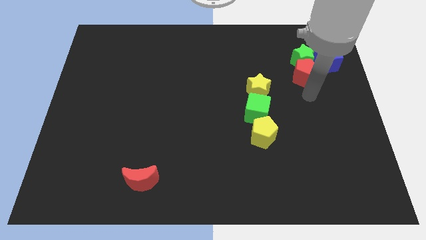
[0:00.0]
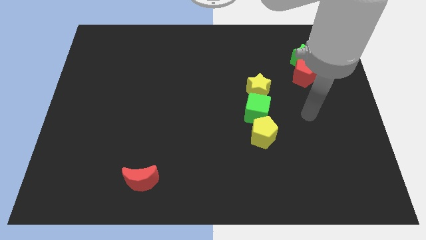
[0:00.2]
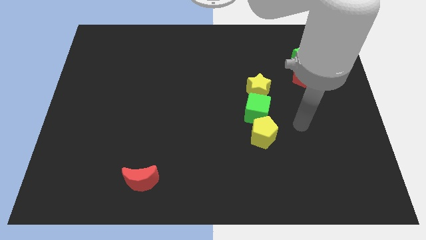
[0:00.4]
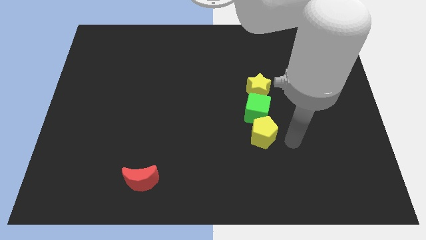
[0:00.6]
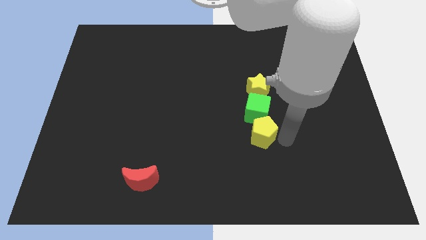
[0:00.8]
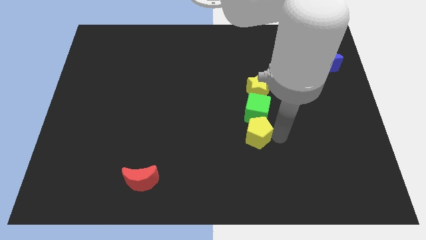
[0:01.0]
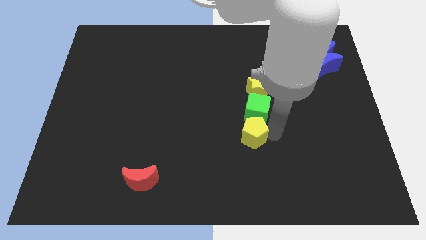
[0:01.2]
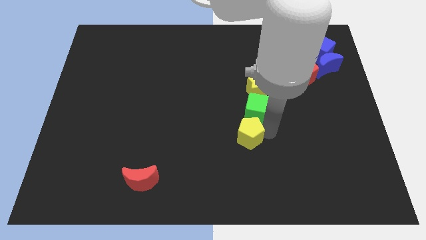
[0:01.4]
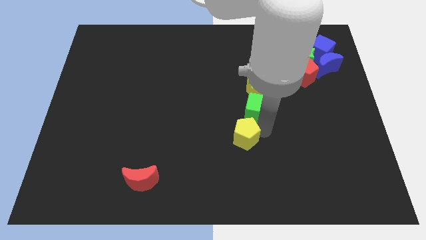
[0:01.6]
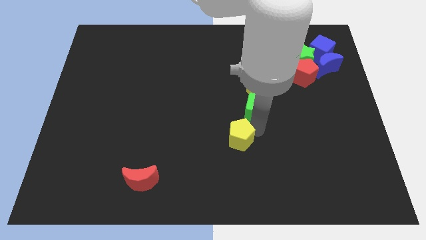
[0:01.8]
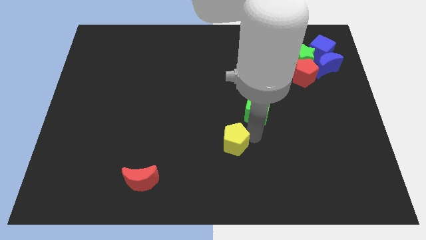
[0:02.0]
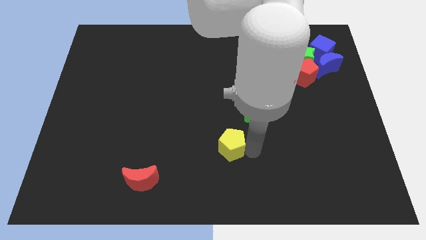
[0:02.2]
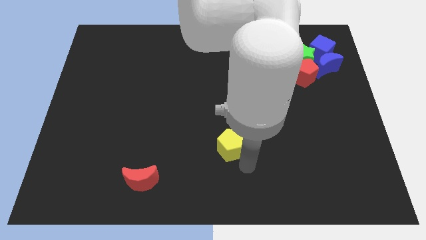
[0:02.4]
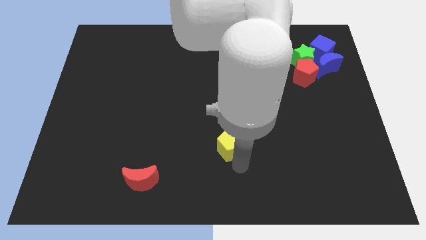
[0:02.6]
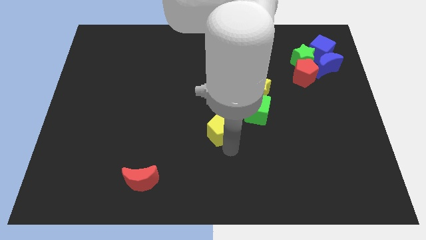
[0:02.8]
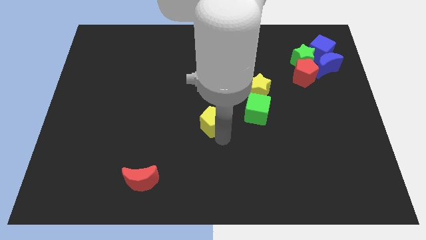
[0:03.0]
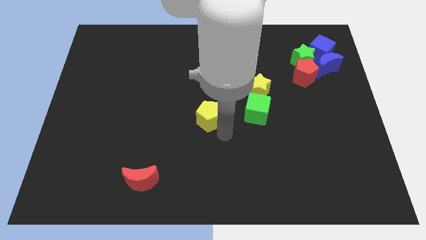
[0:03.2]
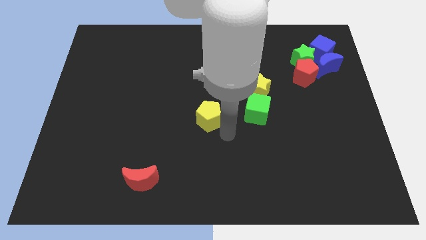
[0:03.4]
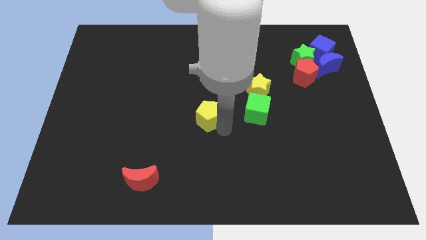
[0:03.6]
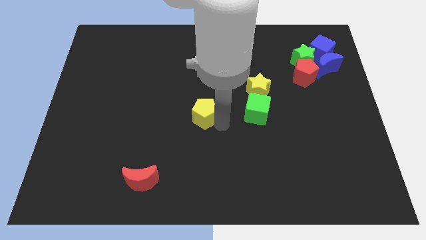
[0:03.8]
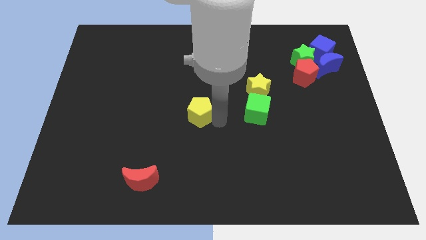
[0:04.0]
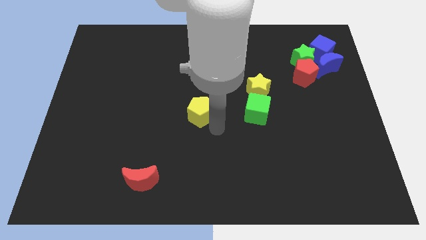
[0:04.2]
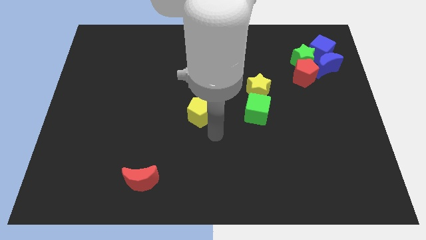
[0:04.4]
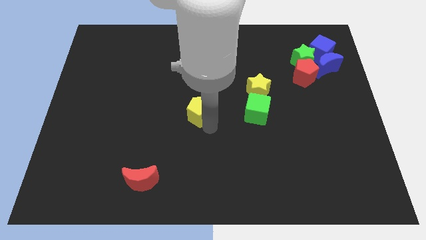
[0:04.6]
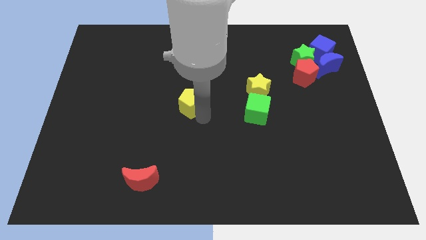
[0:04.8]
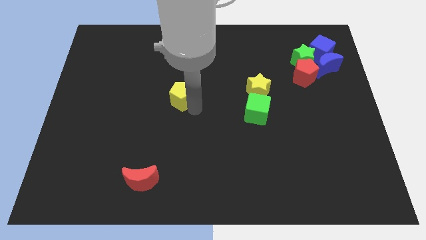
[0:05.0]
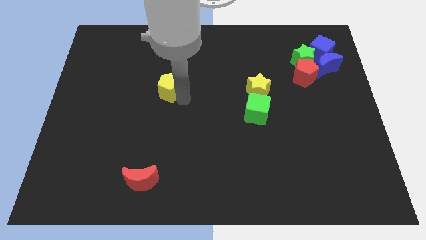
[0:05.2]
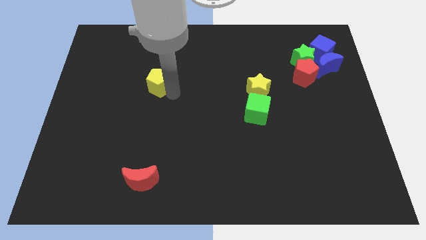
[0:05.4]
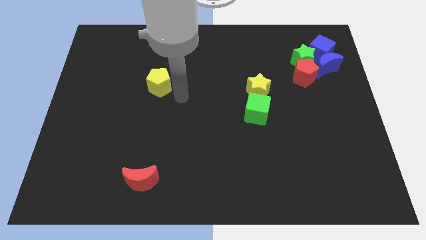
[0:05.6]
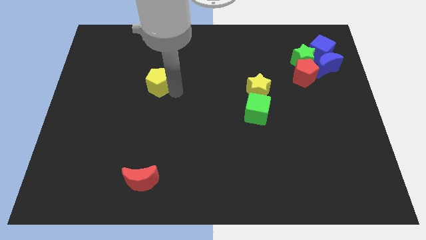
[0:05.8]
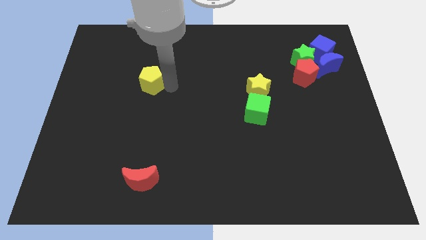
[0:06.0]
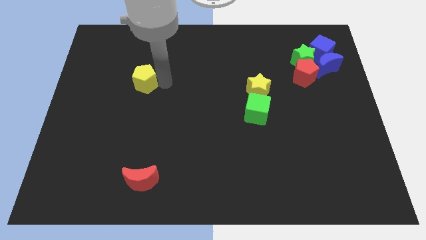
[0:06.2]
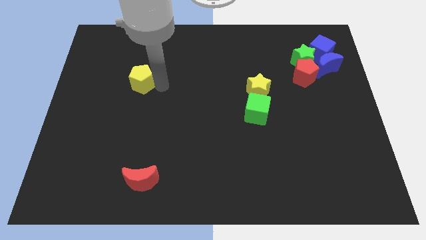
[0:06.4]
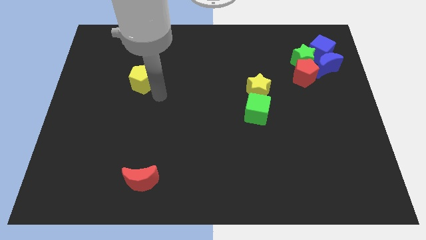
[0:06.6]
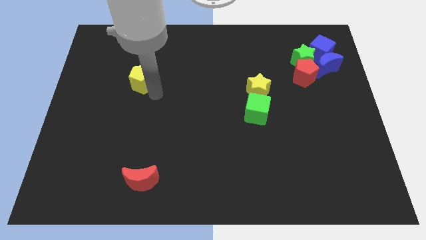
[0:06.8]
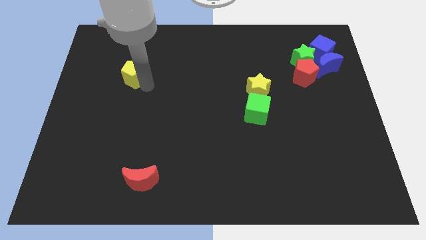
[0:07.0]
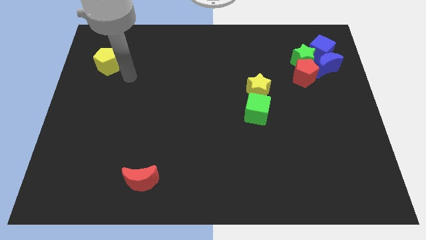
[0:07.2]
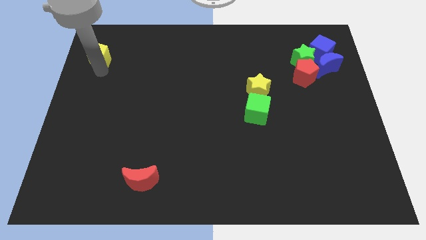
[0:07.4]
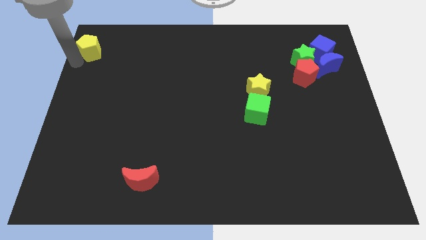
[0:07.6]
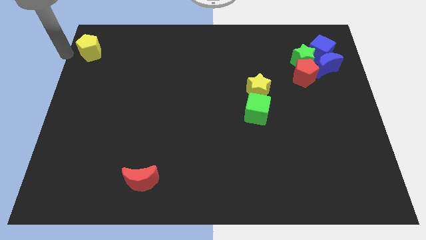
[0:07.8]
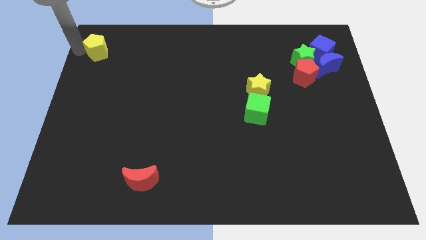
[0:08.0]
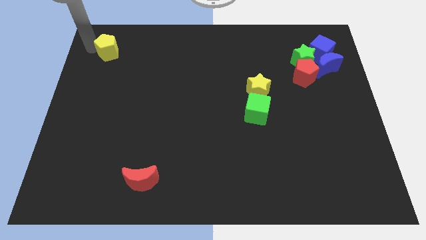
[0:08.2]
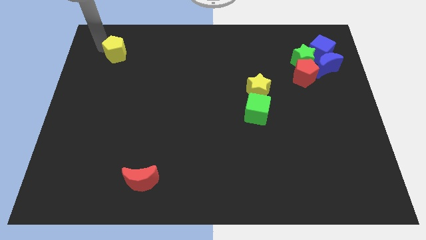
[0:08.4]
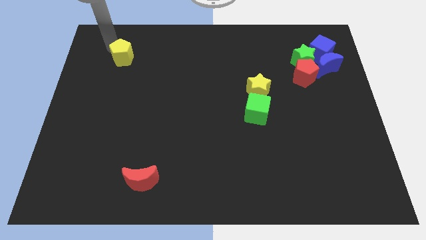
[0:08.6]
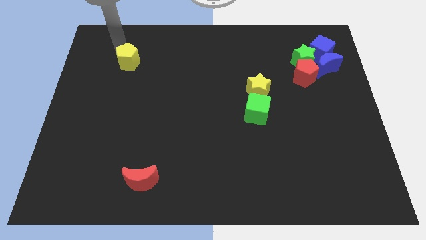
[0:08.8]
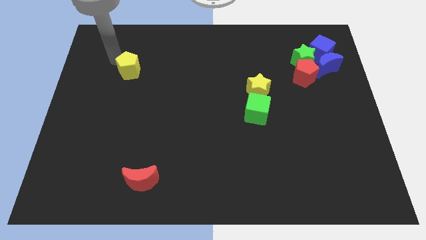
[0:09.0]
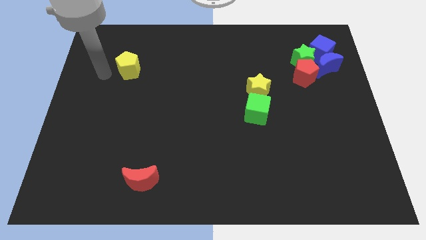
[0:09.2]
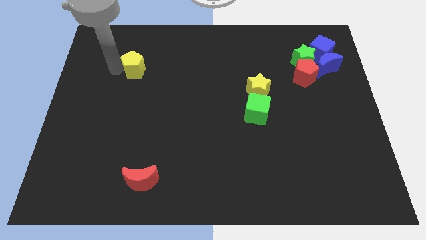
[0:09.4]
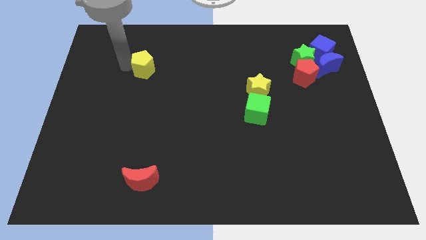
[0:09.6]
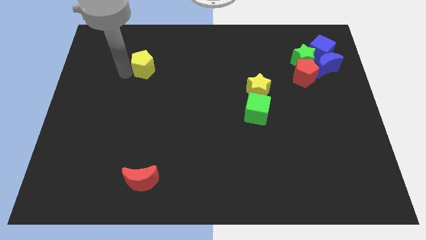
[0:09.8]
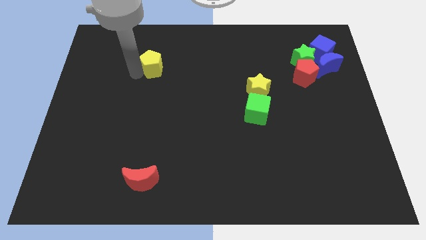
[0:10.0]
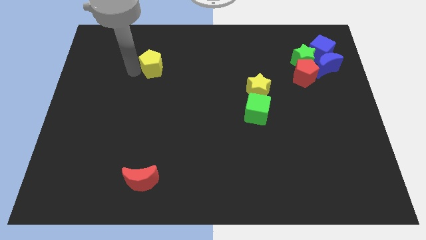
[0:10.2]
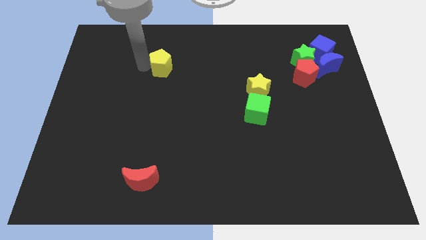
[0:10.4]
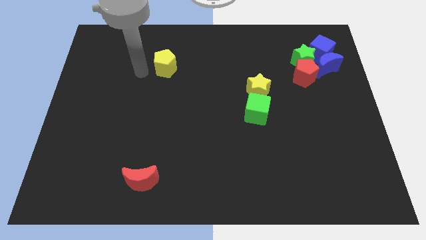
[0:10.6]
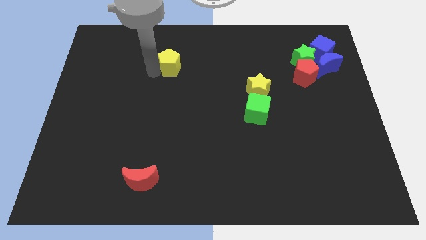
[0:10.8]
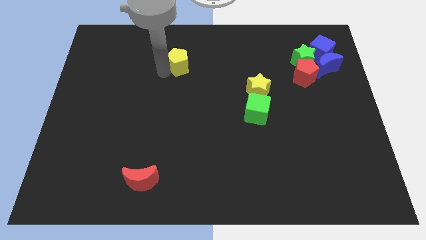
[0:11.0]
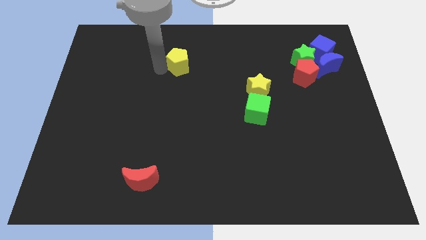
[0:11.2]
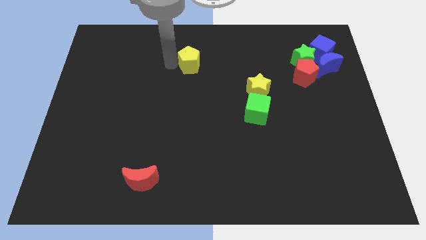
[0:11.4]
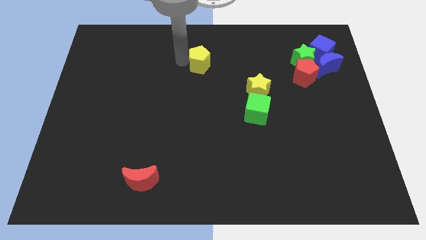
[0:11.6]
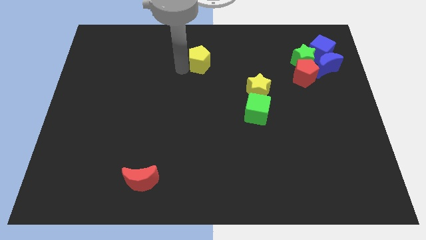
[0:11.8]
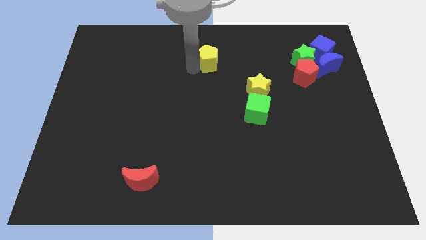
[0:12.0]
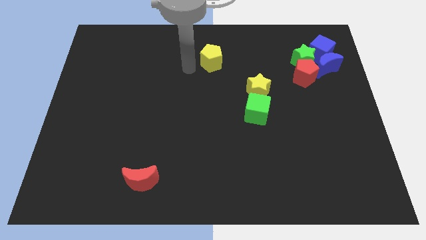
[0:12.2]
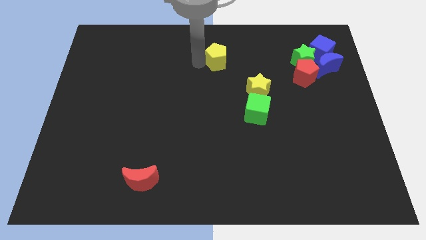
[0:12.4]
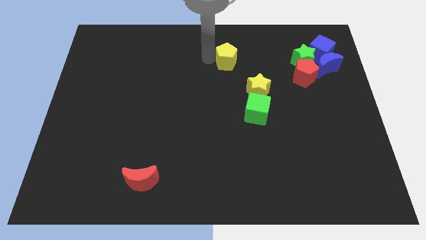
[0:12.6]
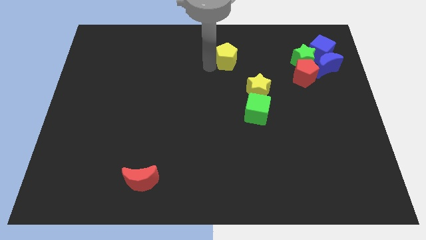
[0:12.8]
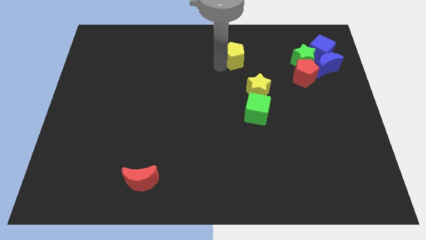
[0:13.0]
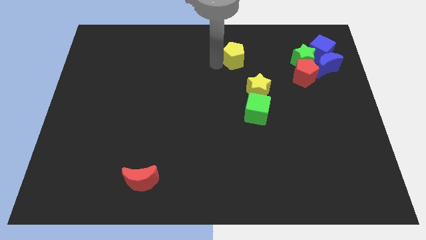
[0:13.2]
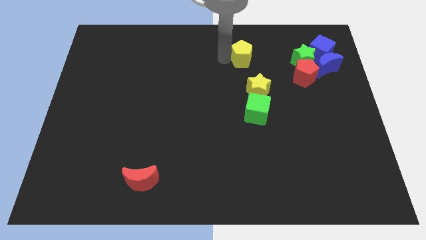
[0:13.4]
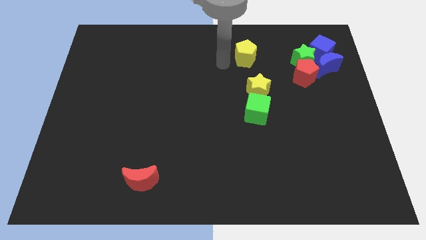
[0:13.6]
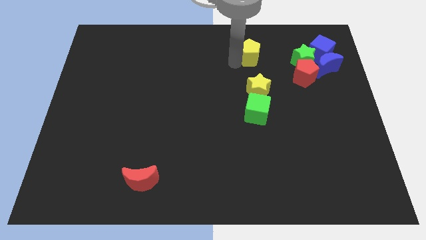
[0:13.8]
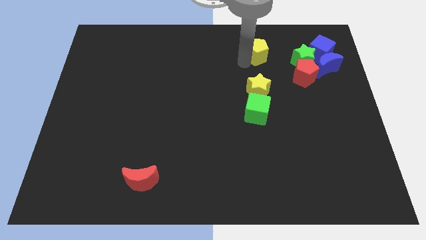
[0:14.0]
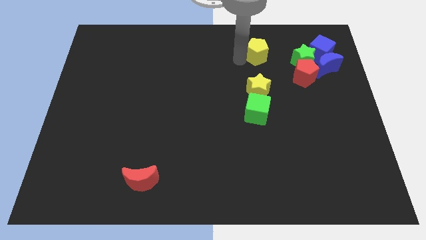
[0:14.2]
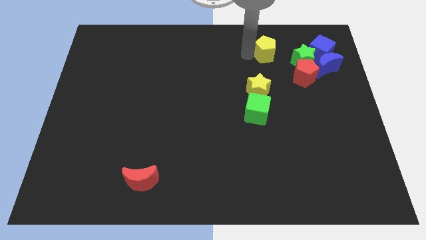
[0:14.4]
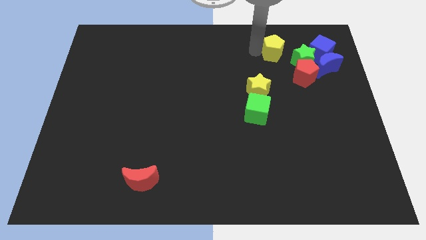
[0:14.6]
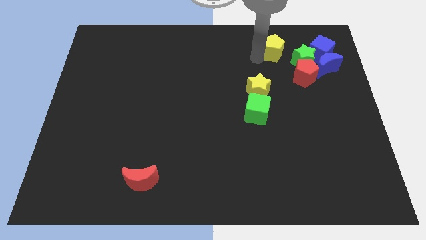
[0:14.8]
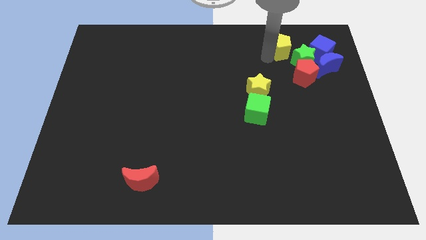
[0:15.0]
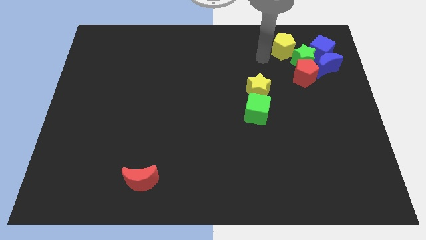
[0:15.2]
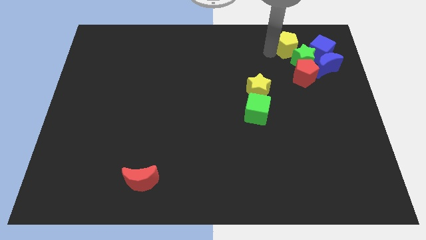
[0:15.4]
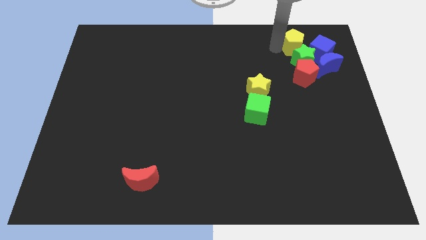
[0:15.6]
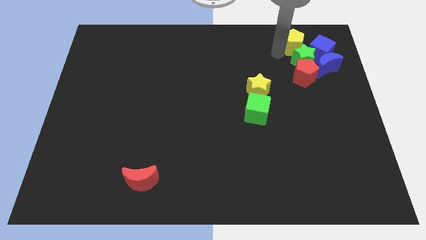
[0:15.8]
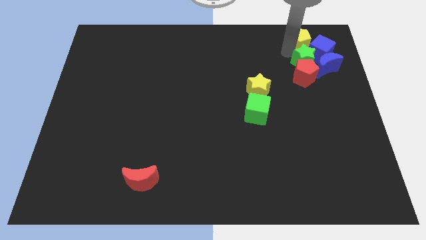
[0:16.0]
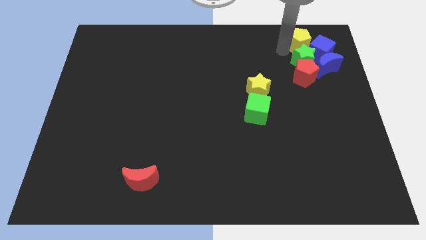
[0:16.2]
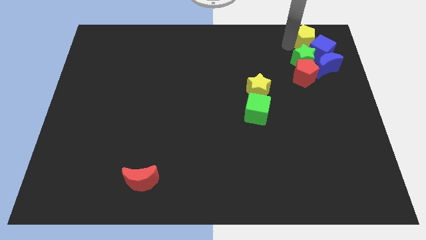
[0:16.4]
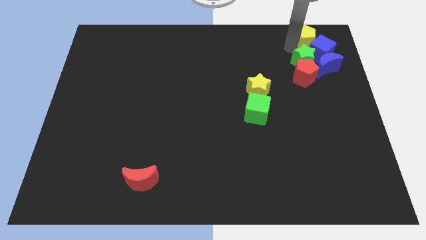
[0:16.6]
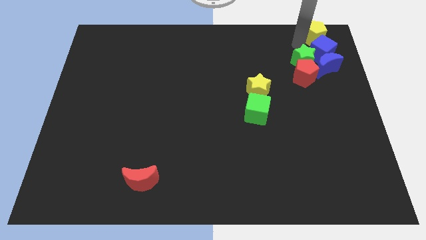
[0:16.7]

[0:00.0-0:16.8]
move the yellow pentagon to the top right
